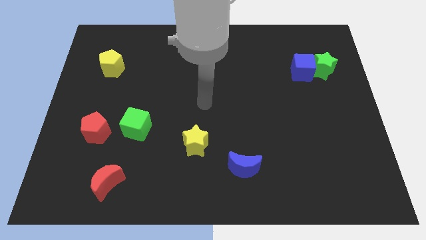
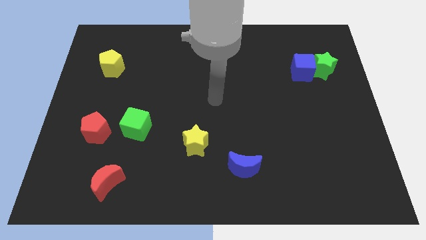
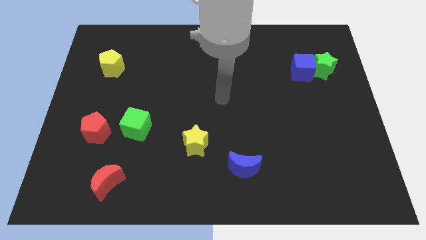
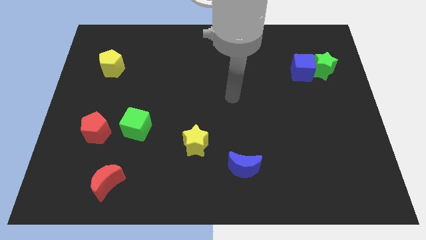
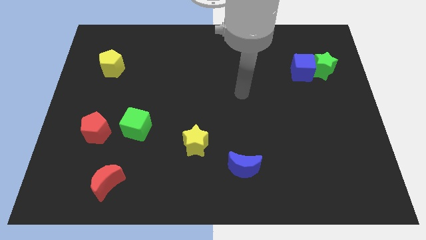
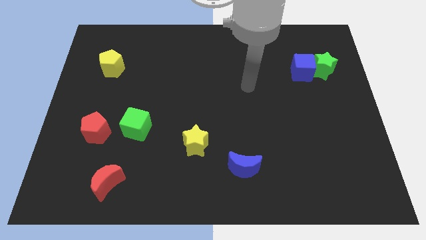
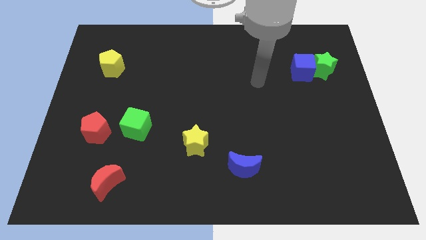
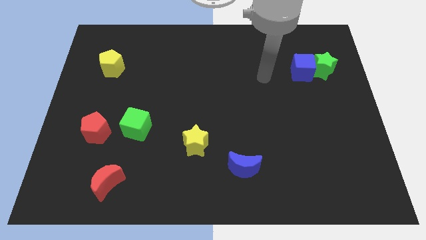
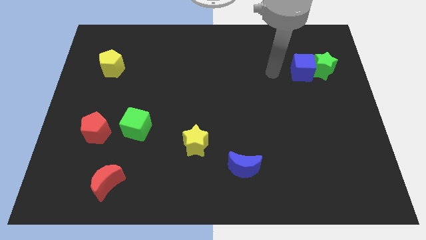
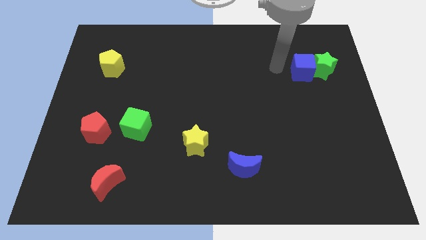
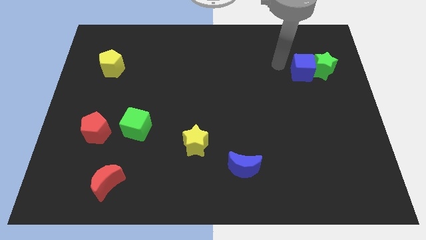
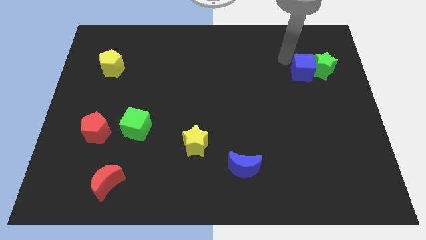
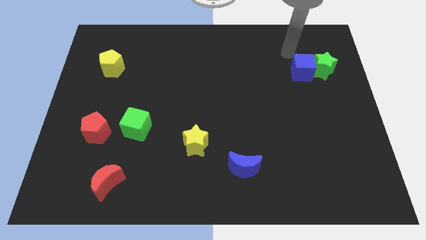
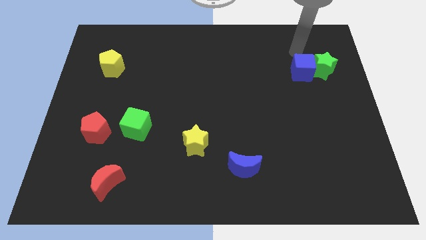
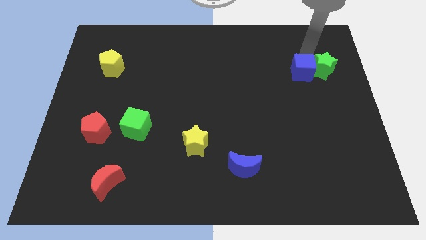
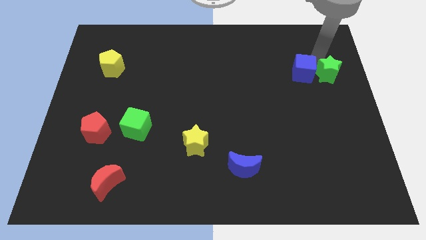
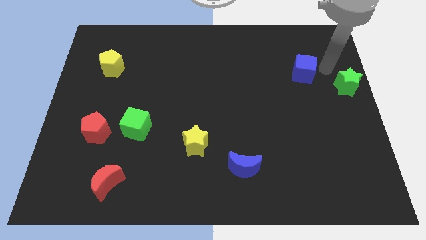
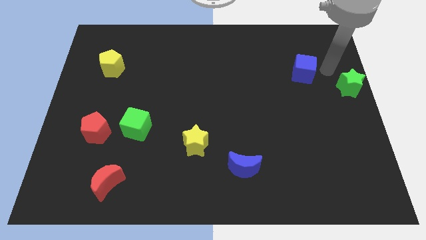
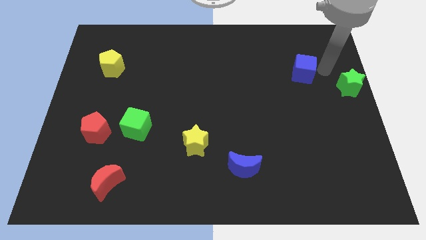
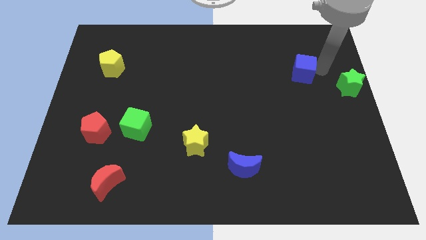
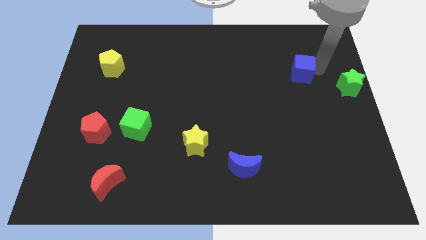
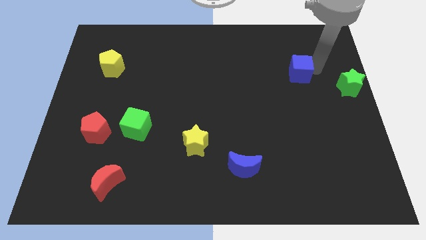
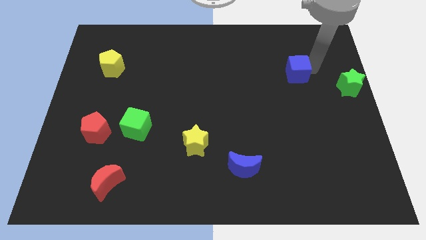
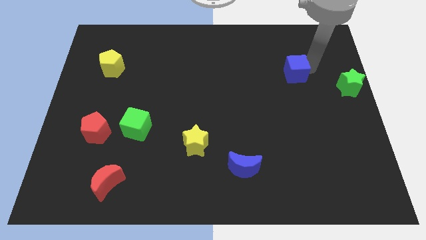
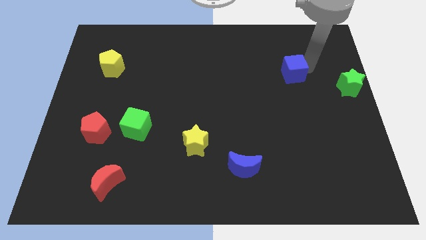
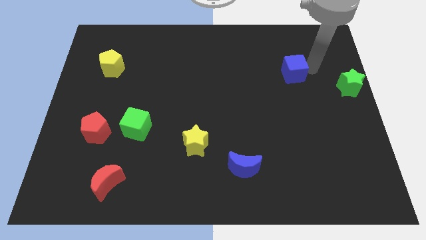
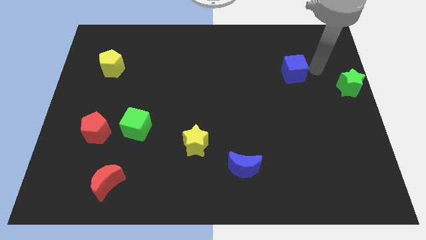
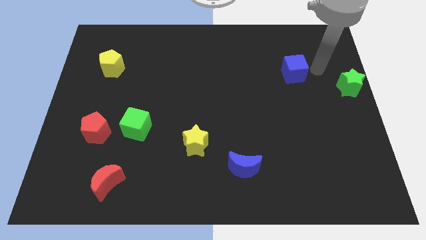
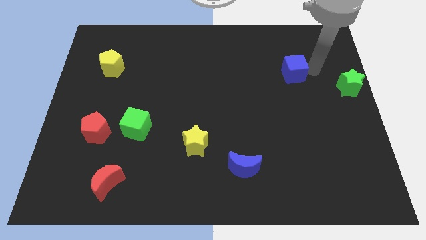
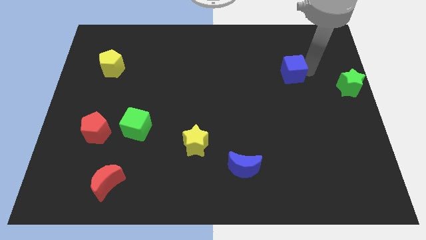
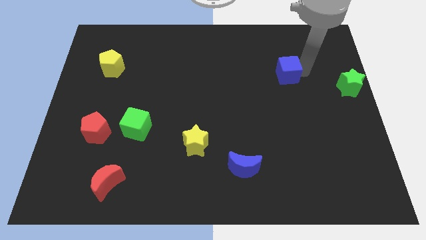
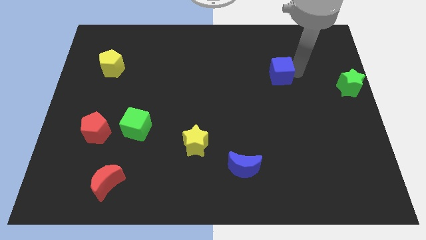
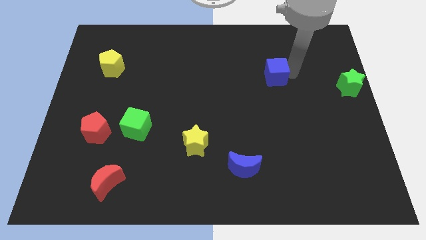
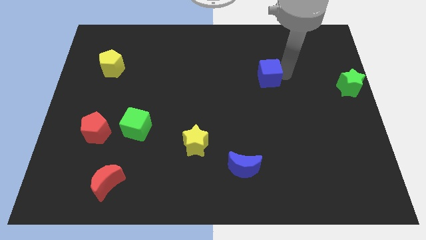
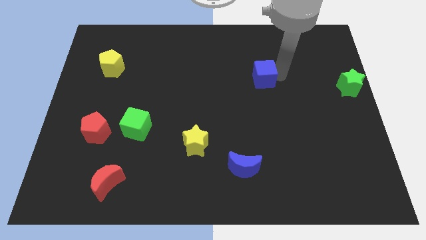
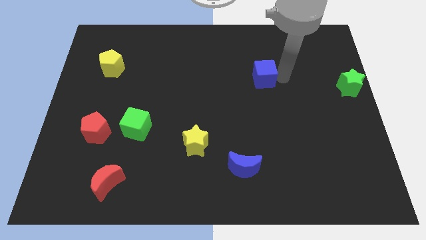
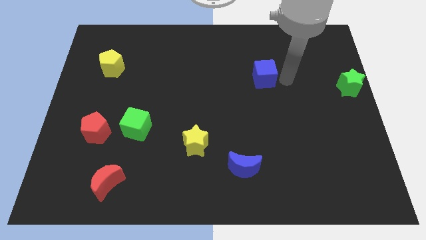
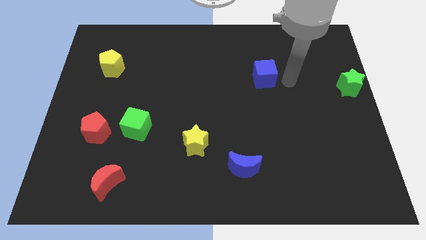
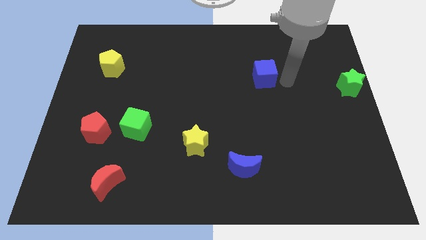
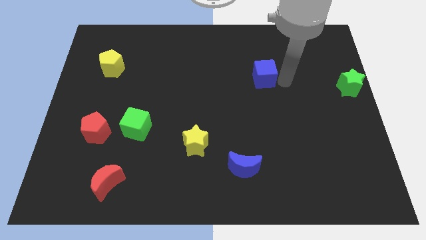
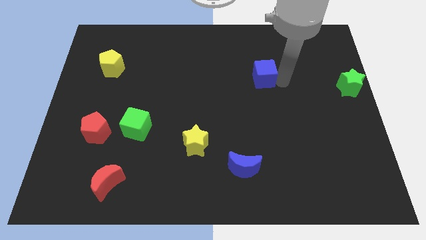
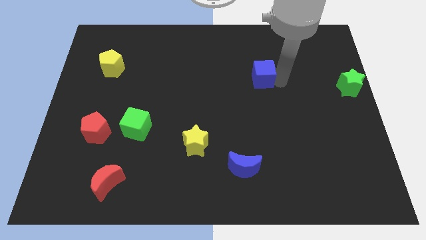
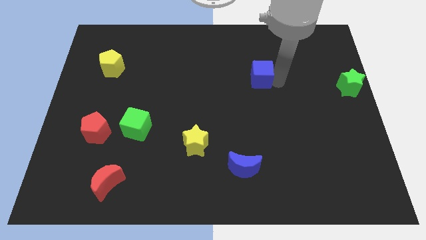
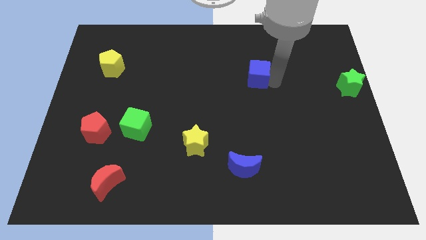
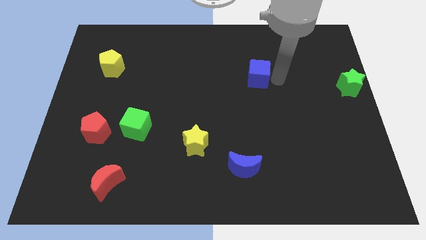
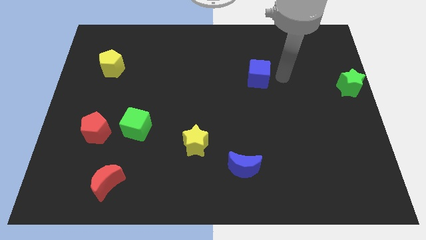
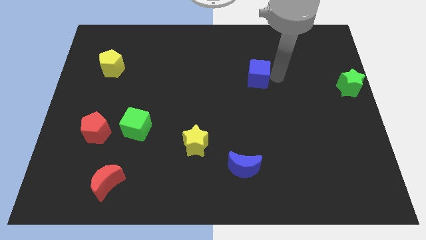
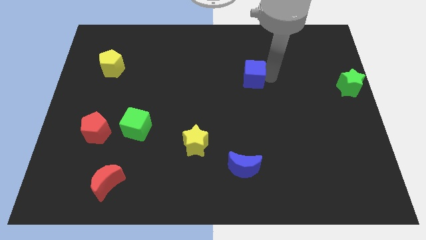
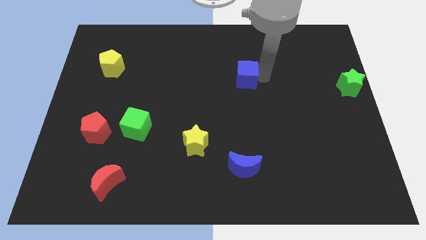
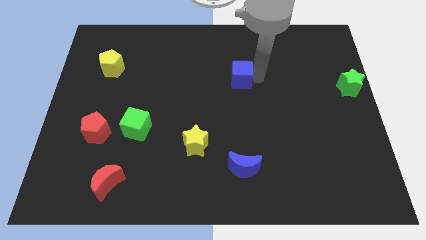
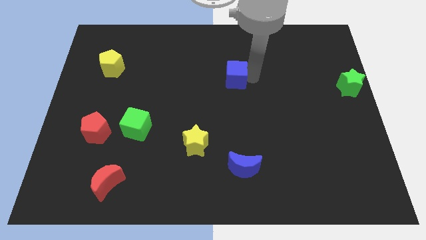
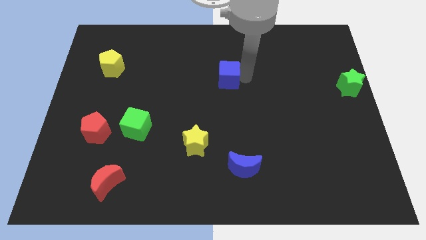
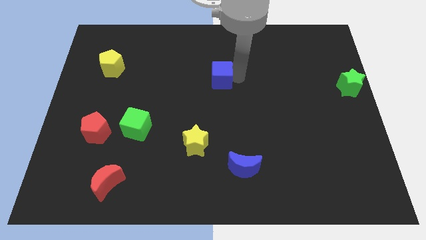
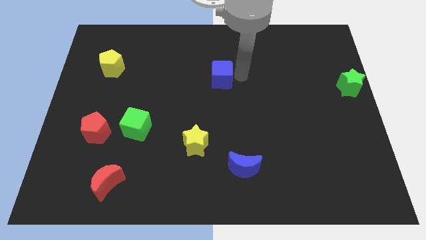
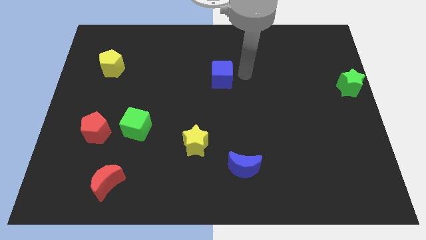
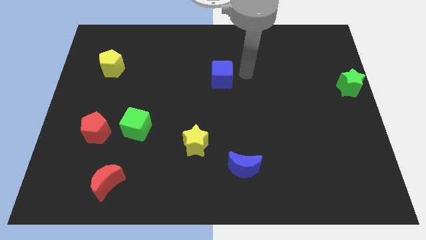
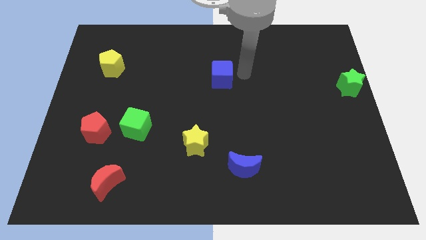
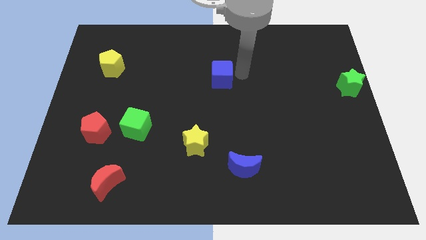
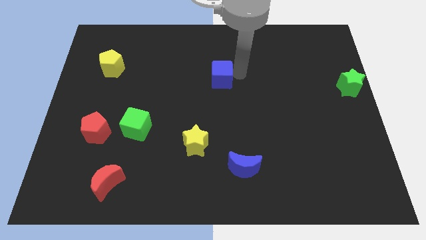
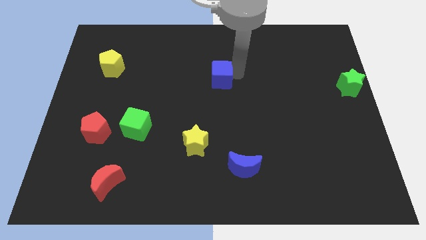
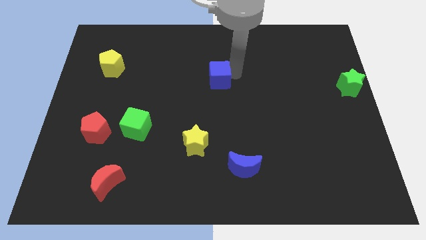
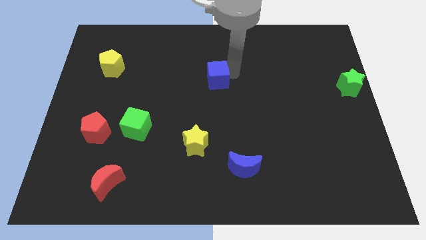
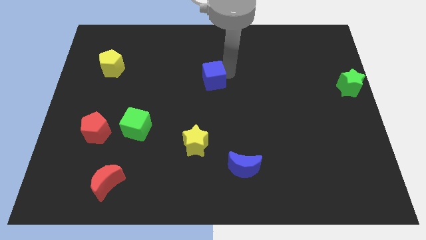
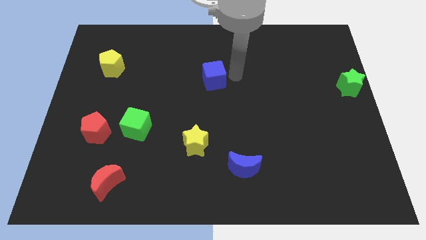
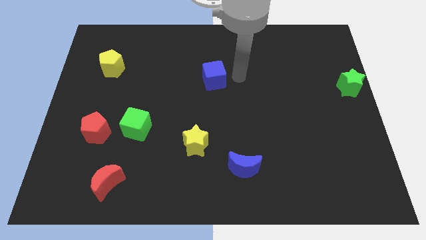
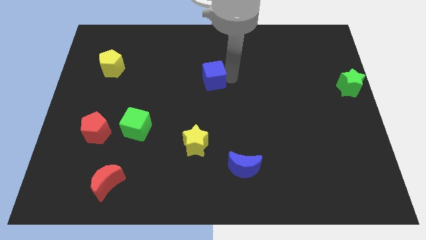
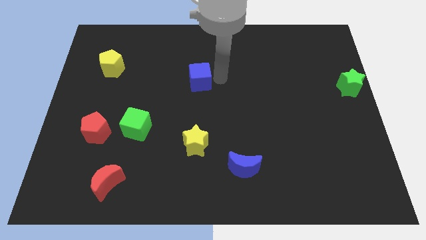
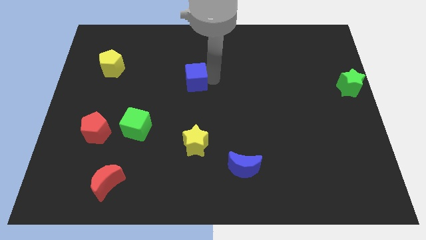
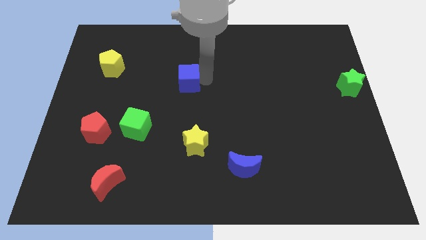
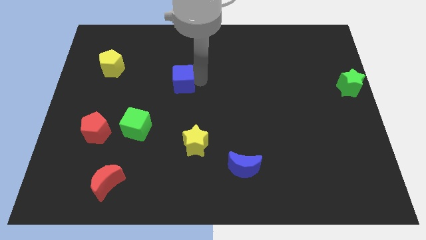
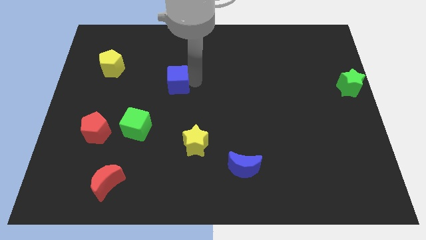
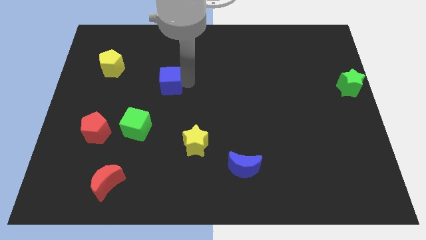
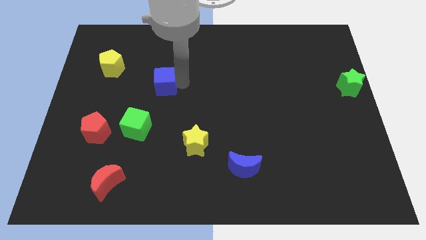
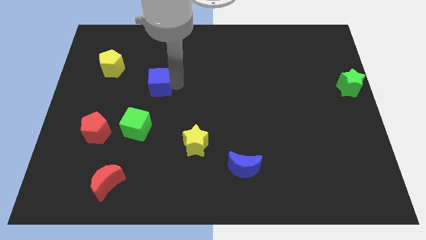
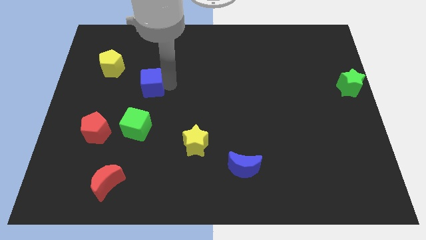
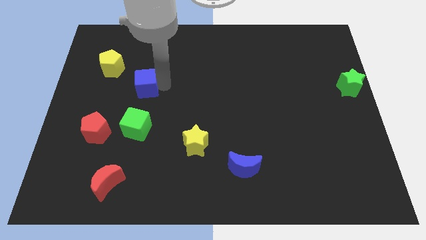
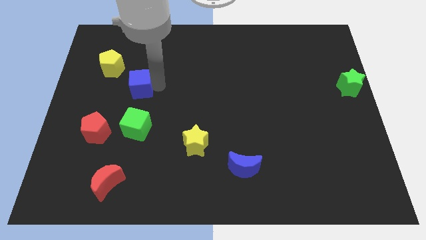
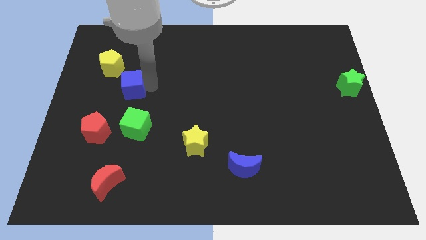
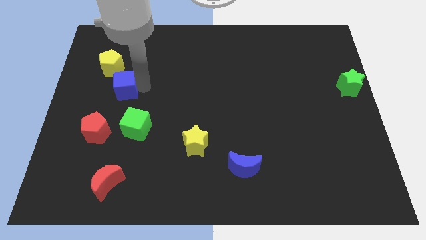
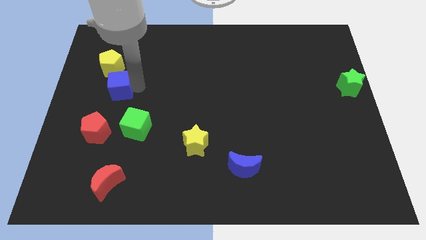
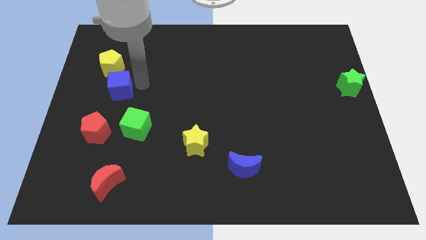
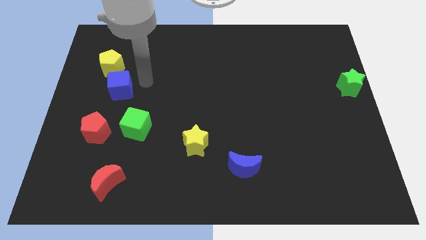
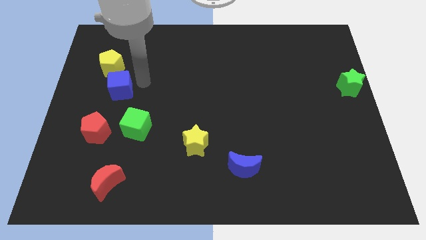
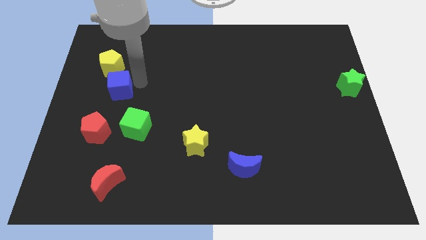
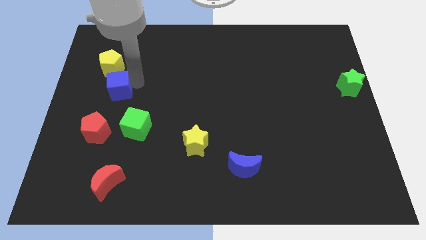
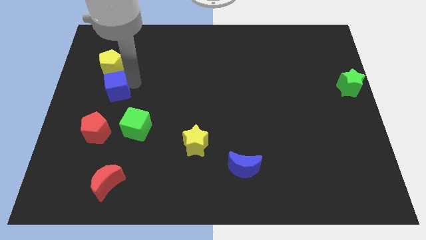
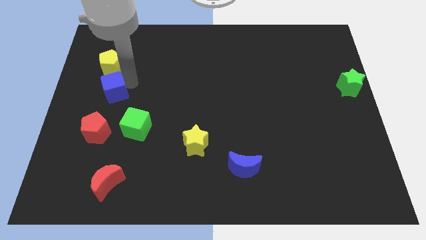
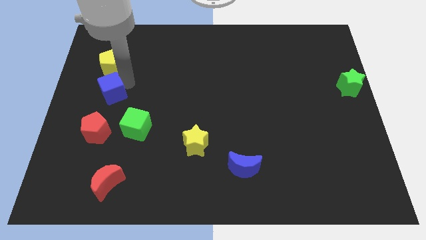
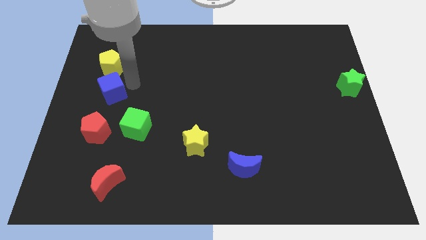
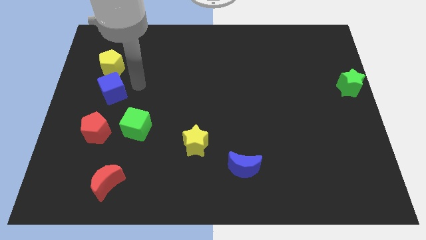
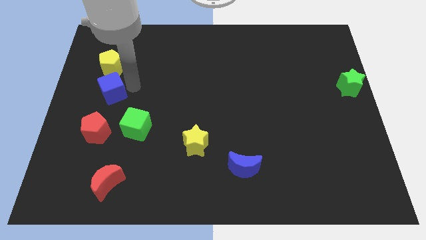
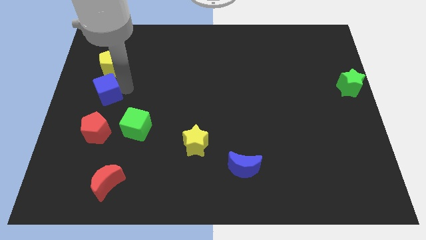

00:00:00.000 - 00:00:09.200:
put the blue cube to the left side of the board
